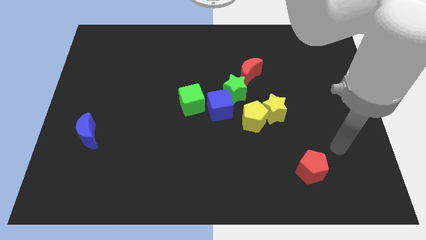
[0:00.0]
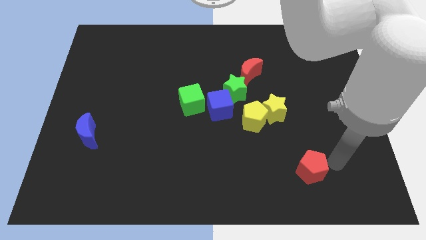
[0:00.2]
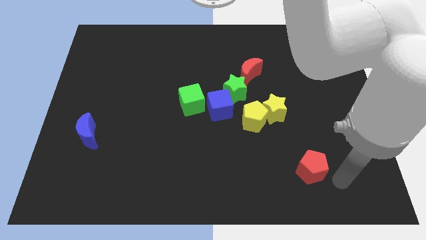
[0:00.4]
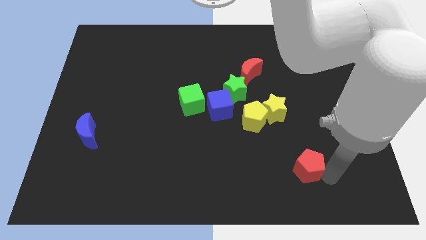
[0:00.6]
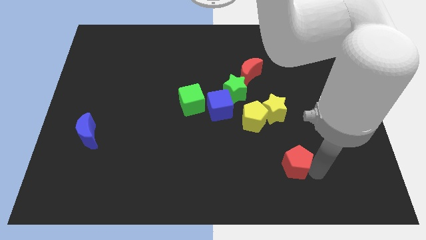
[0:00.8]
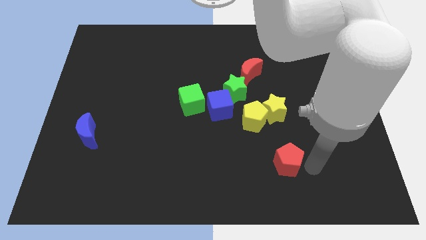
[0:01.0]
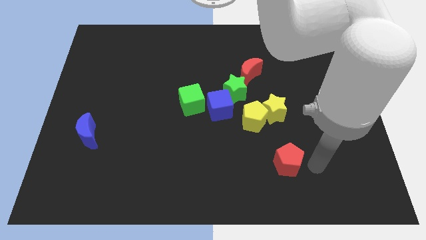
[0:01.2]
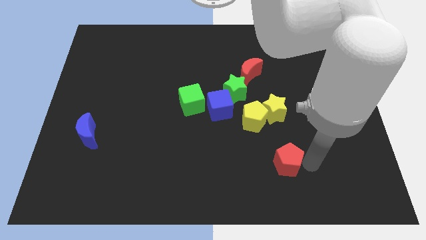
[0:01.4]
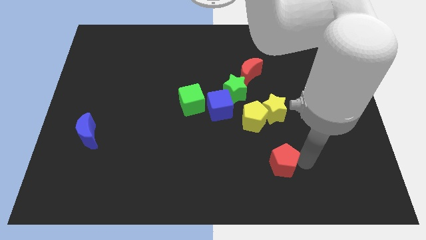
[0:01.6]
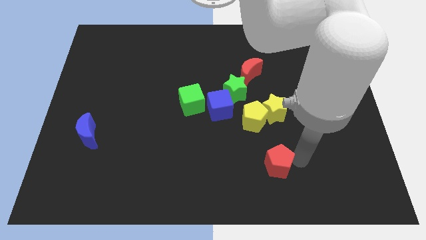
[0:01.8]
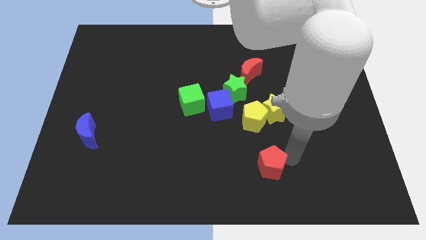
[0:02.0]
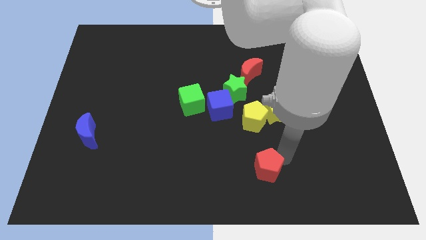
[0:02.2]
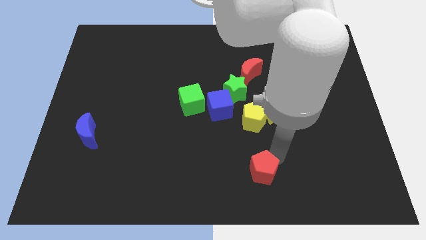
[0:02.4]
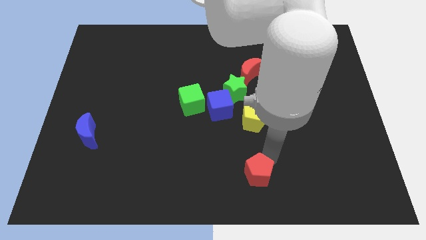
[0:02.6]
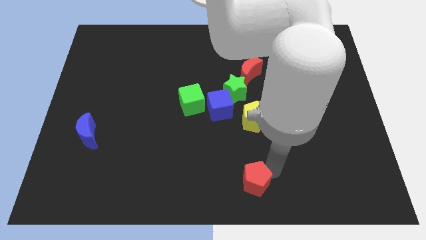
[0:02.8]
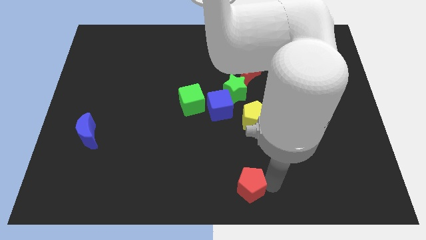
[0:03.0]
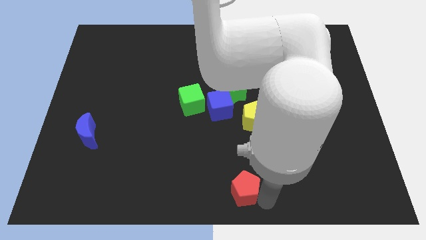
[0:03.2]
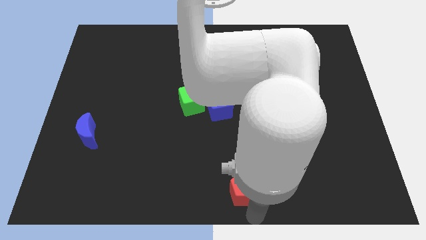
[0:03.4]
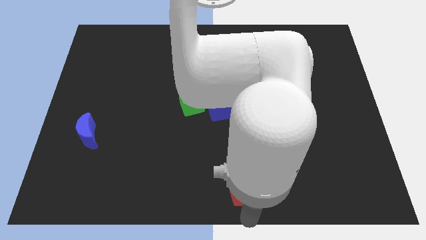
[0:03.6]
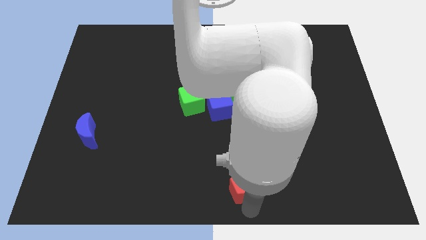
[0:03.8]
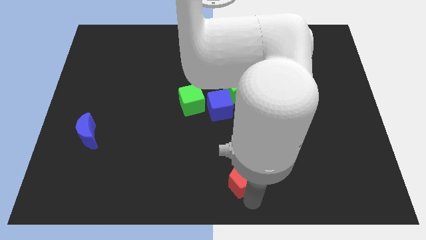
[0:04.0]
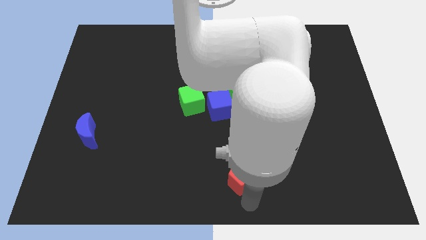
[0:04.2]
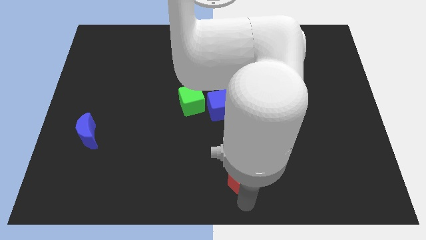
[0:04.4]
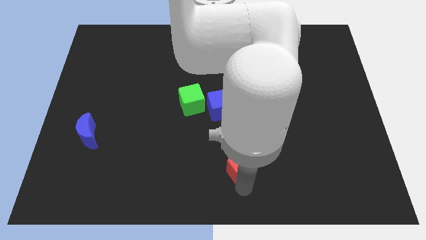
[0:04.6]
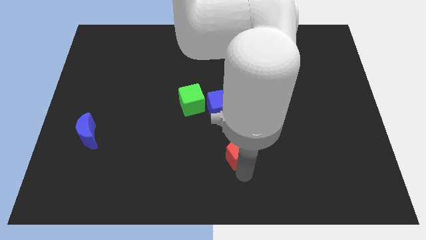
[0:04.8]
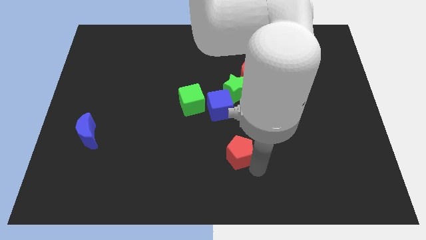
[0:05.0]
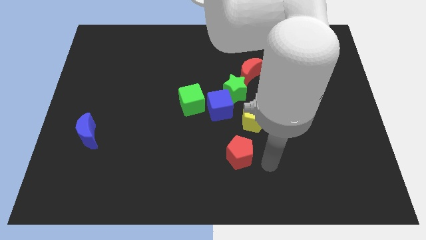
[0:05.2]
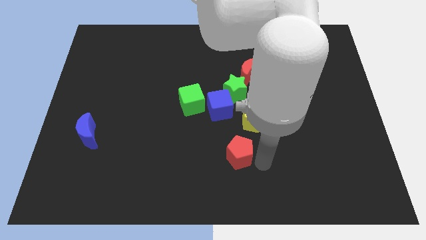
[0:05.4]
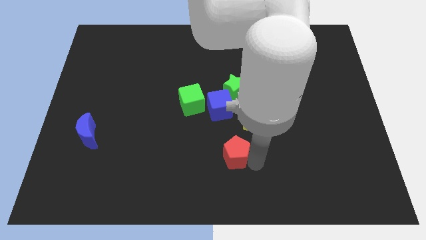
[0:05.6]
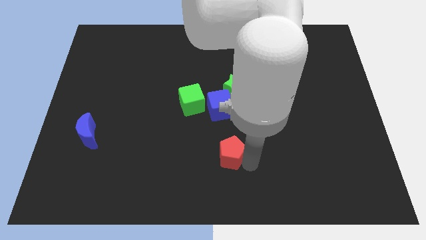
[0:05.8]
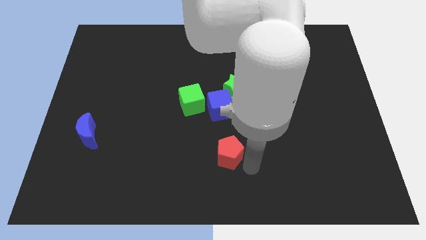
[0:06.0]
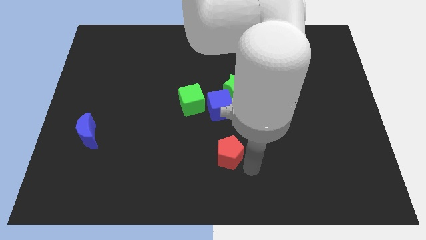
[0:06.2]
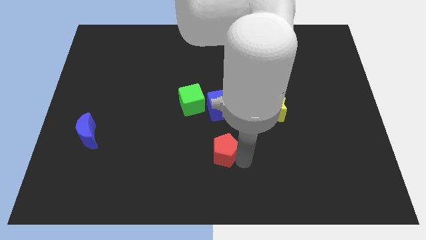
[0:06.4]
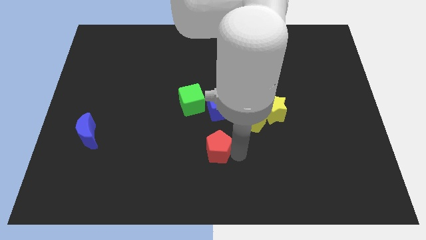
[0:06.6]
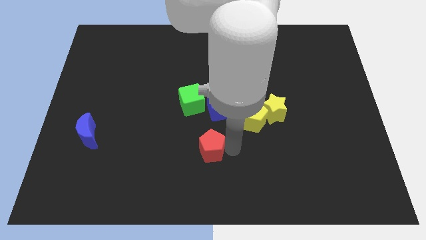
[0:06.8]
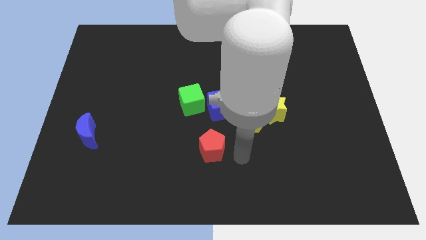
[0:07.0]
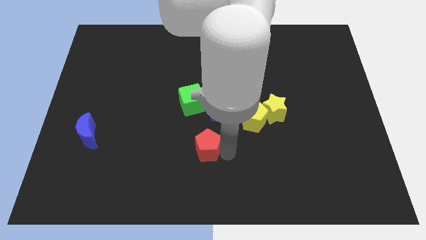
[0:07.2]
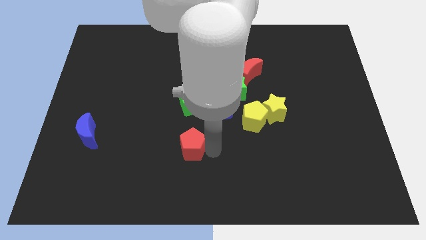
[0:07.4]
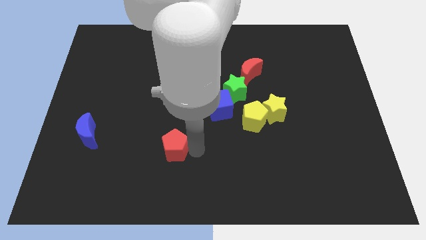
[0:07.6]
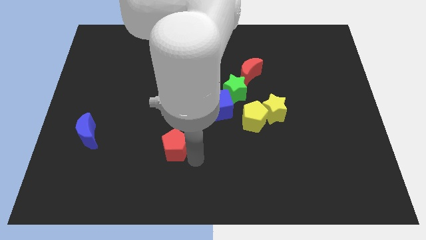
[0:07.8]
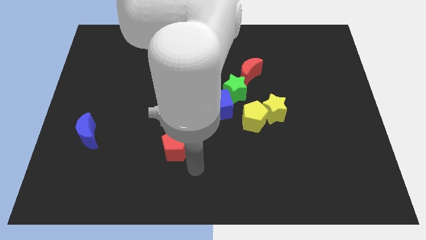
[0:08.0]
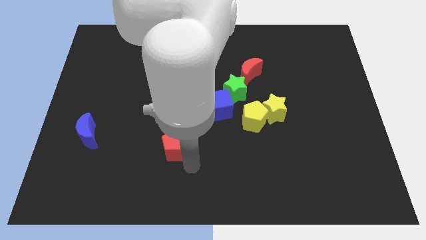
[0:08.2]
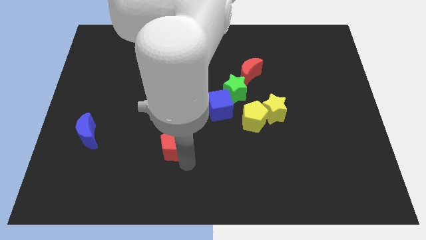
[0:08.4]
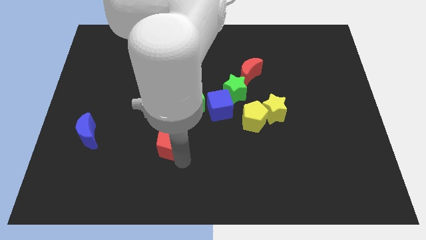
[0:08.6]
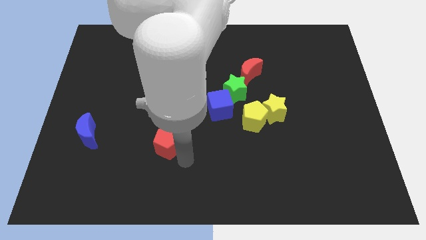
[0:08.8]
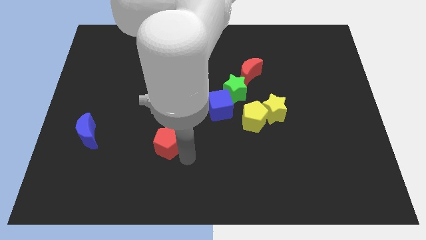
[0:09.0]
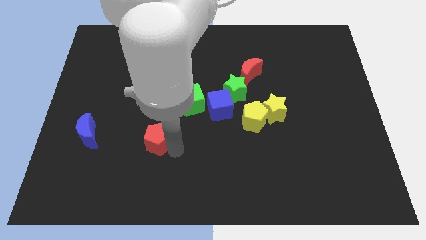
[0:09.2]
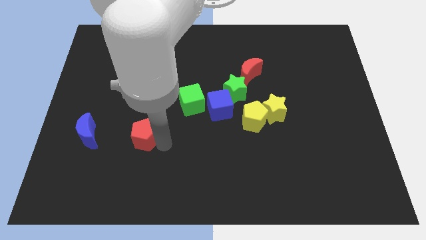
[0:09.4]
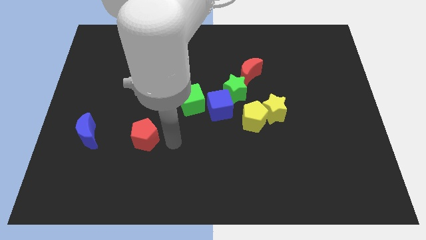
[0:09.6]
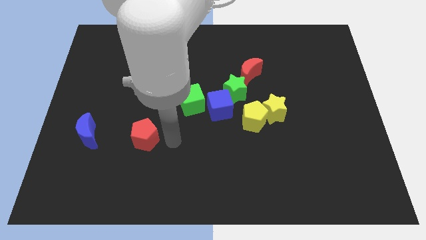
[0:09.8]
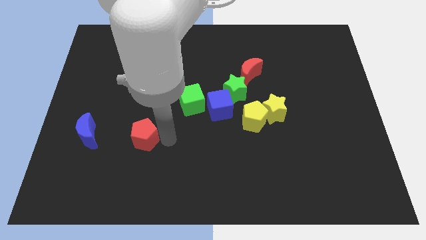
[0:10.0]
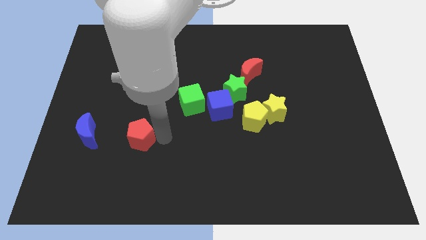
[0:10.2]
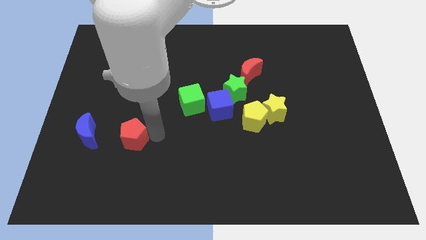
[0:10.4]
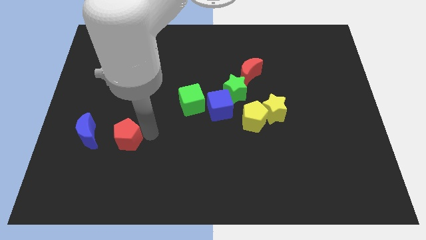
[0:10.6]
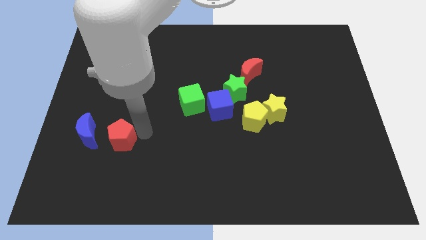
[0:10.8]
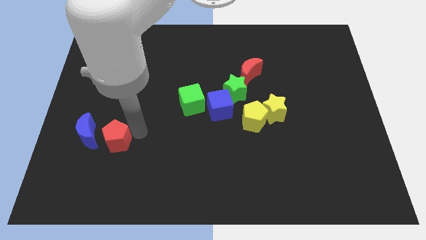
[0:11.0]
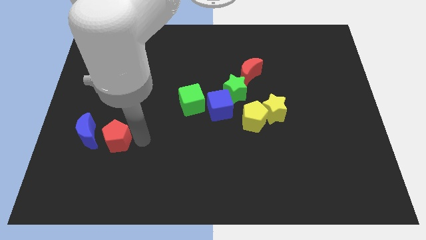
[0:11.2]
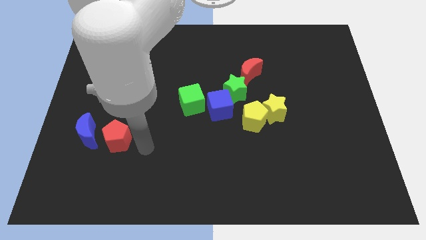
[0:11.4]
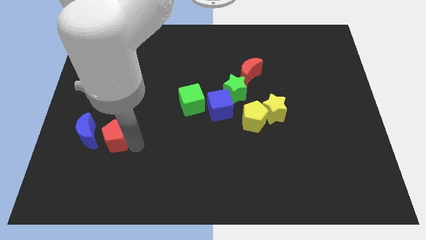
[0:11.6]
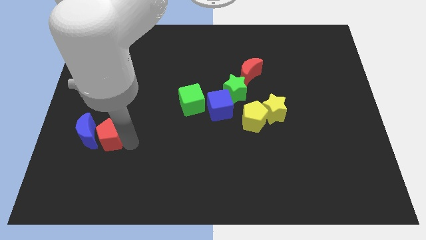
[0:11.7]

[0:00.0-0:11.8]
push the red pentagon to the blue moon

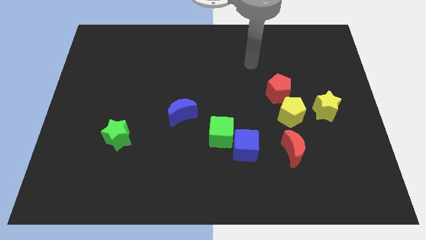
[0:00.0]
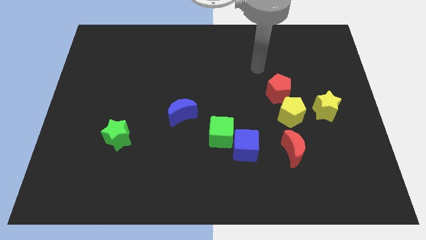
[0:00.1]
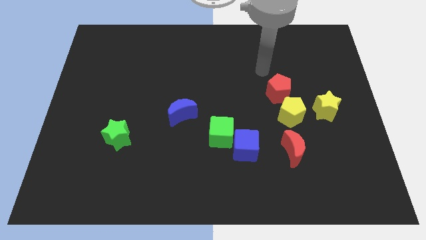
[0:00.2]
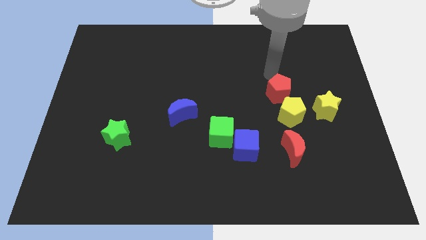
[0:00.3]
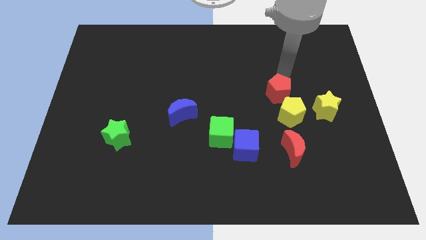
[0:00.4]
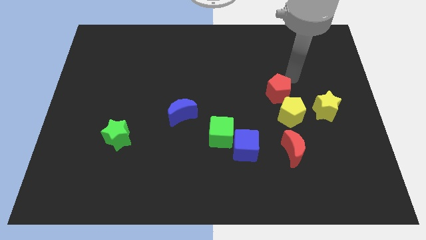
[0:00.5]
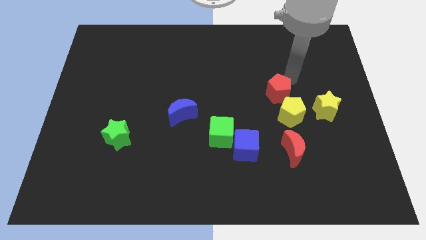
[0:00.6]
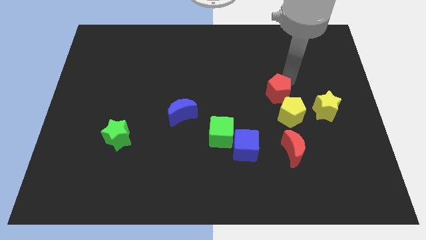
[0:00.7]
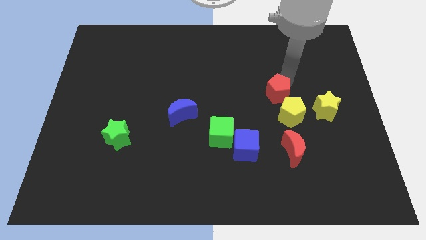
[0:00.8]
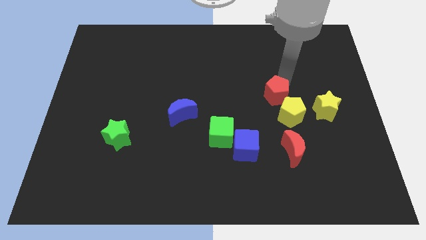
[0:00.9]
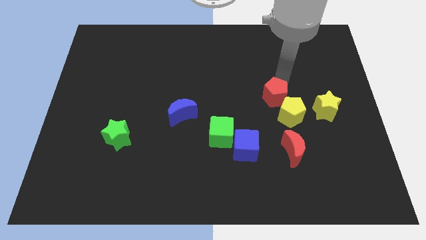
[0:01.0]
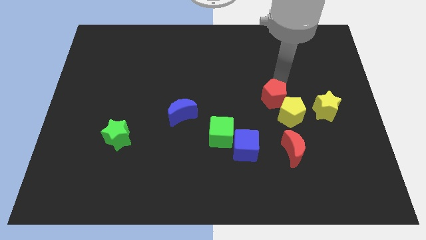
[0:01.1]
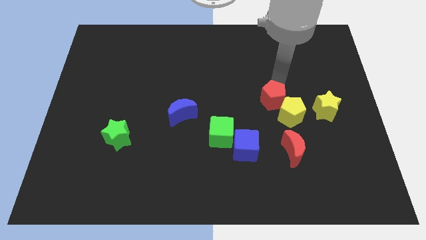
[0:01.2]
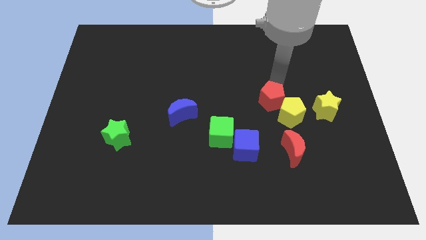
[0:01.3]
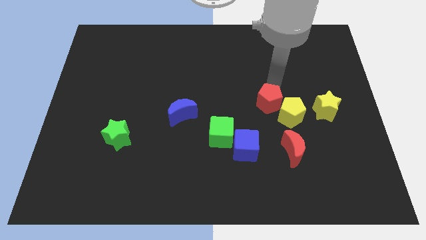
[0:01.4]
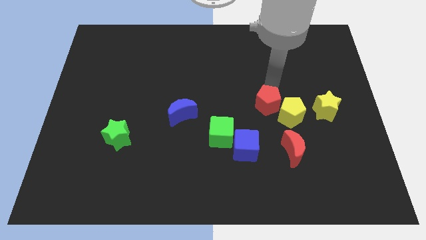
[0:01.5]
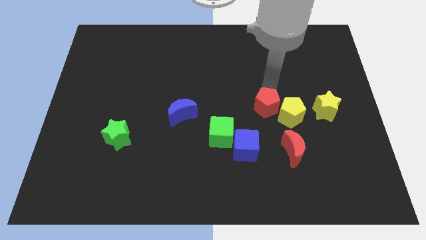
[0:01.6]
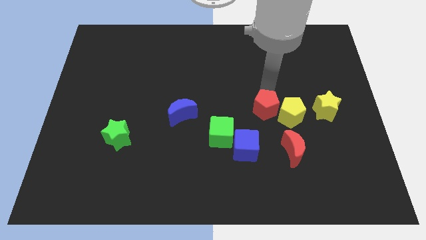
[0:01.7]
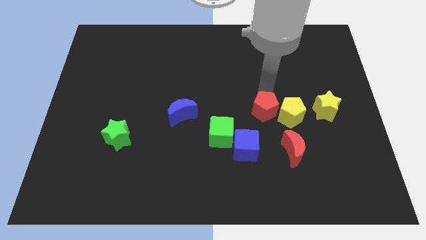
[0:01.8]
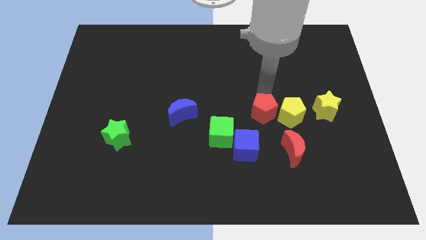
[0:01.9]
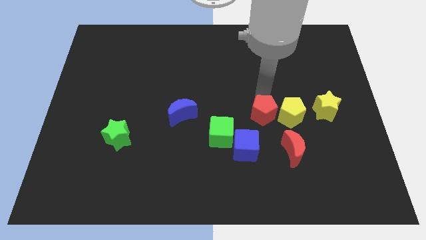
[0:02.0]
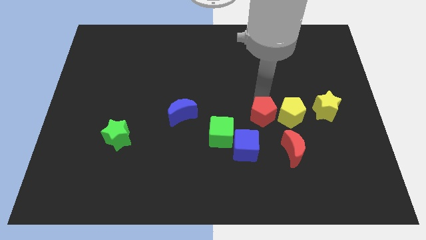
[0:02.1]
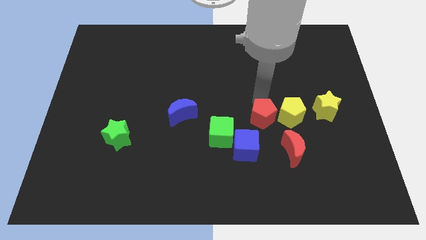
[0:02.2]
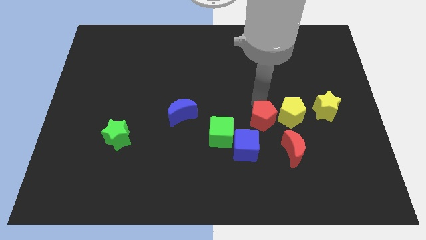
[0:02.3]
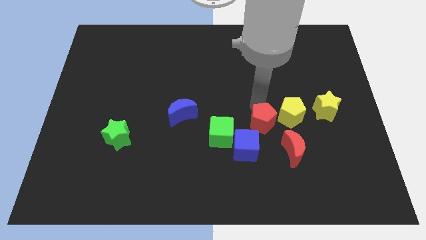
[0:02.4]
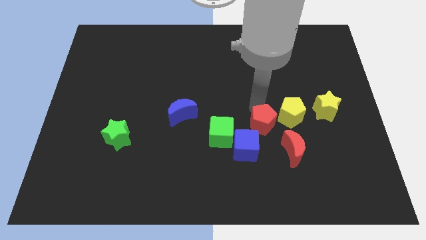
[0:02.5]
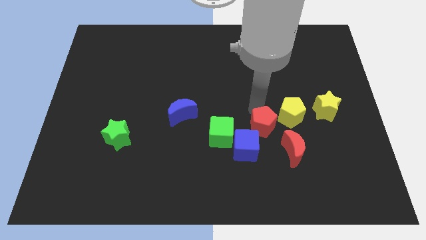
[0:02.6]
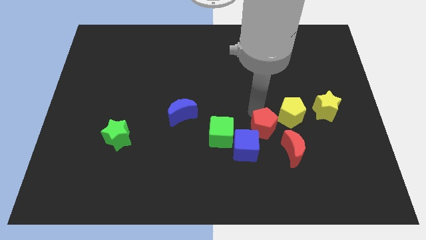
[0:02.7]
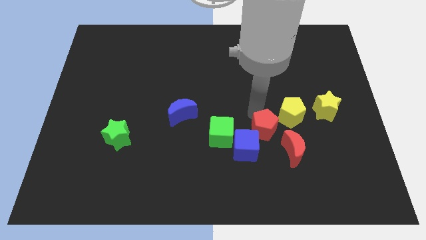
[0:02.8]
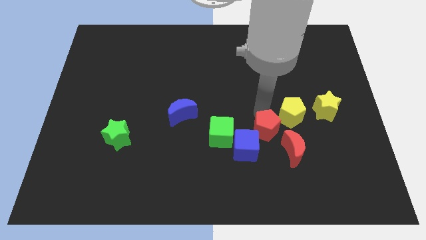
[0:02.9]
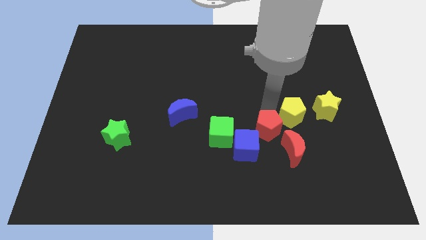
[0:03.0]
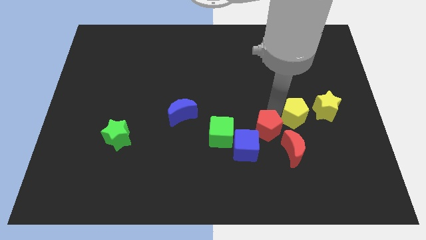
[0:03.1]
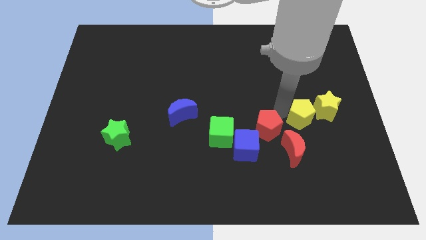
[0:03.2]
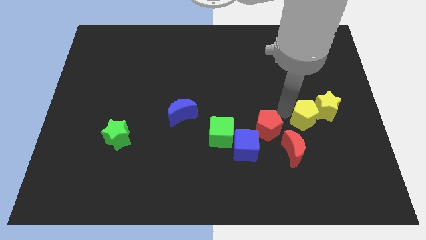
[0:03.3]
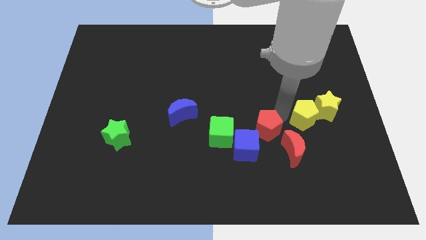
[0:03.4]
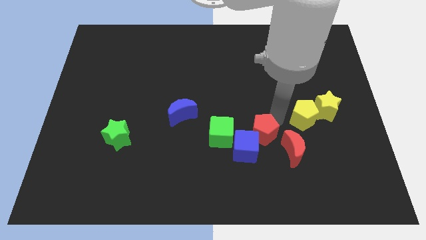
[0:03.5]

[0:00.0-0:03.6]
slide the red pentagon close to the blue cube
